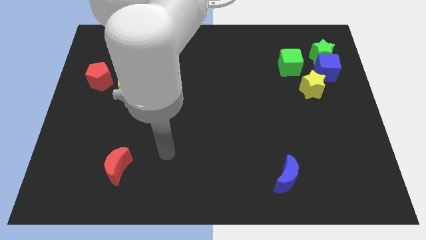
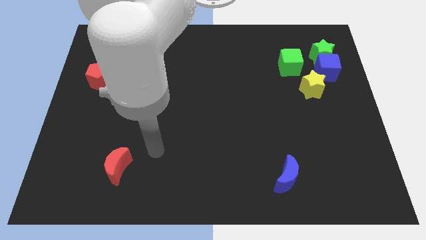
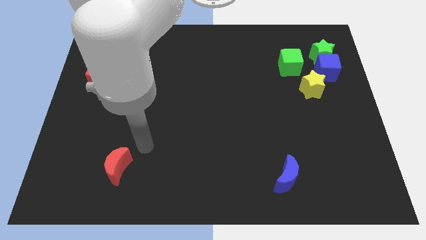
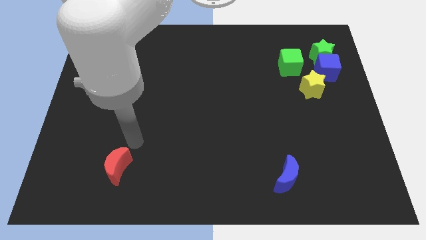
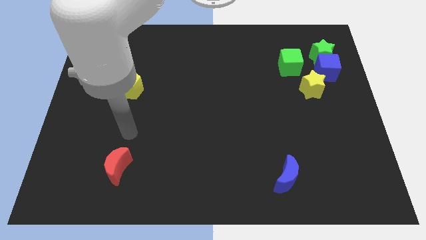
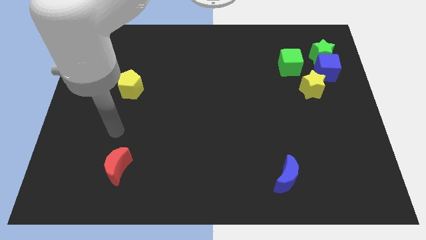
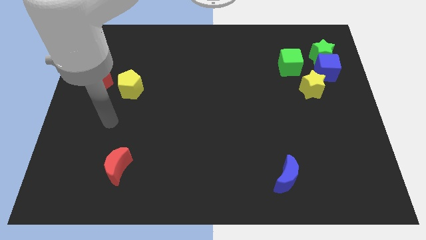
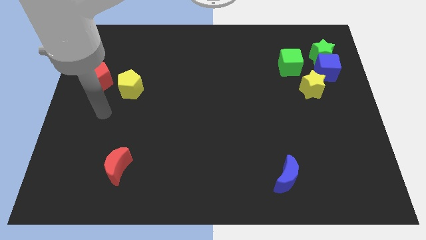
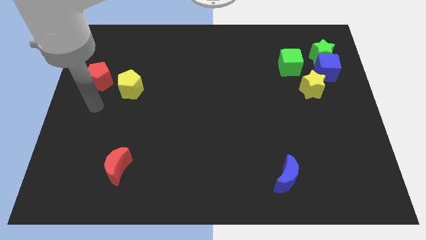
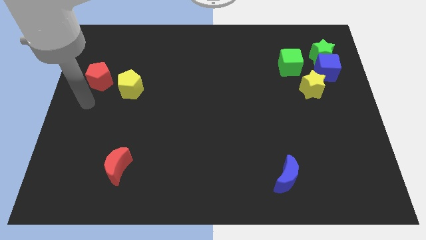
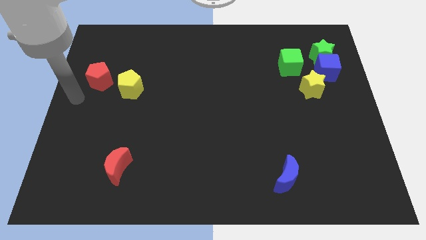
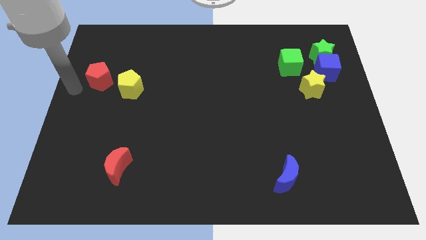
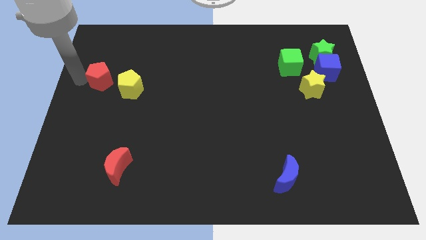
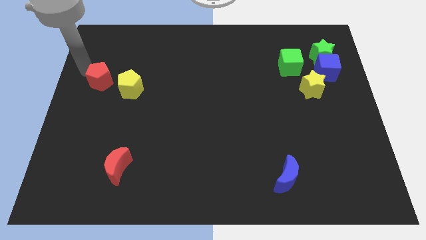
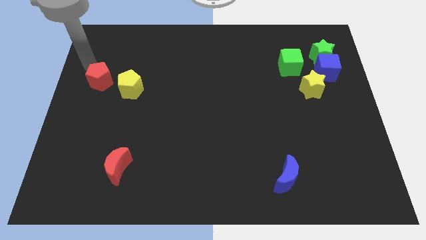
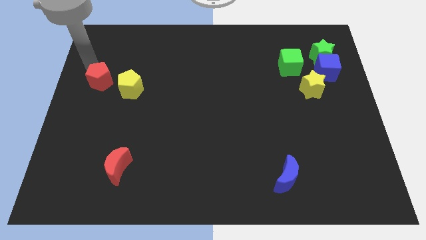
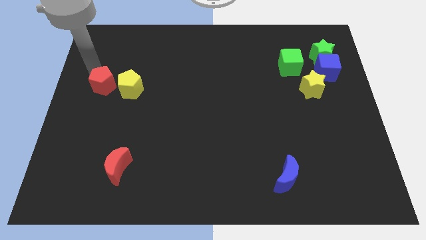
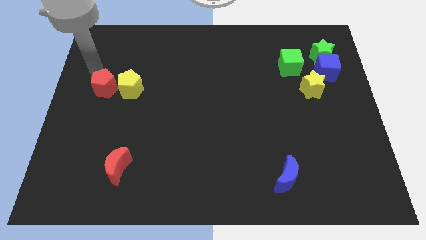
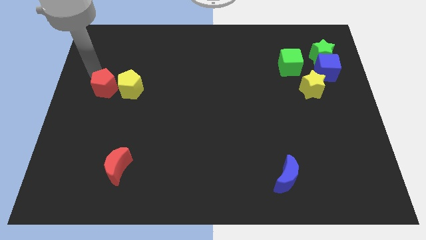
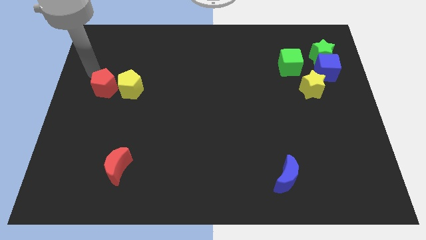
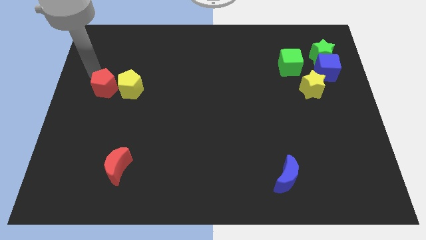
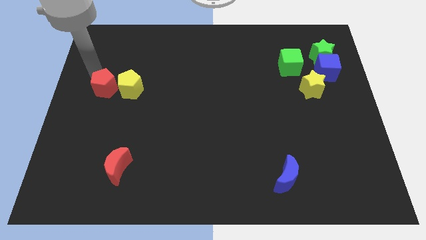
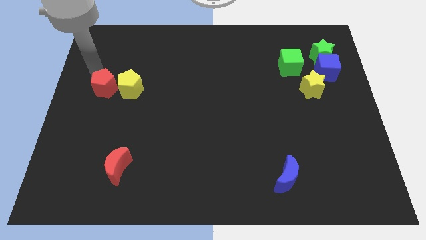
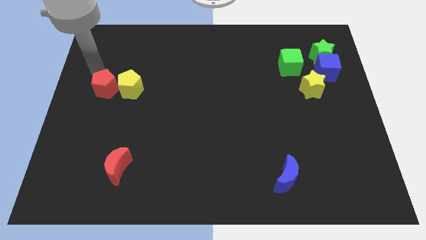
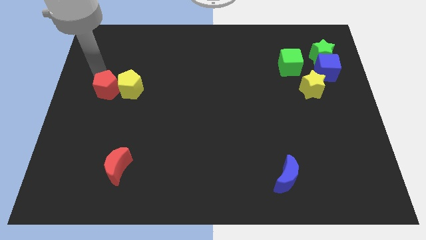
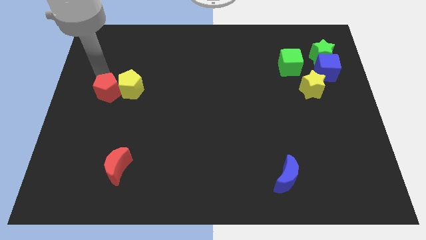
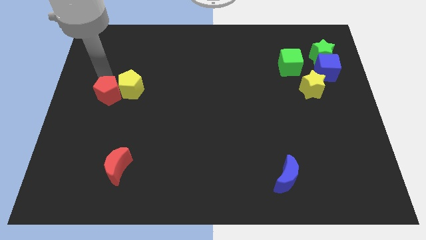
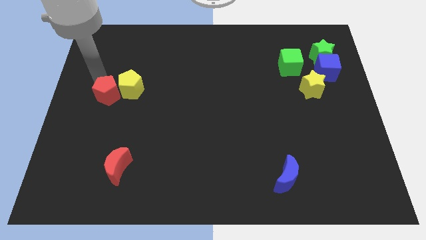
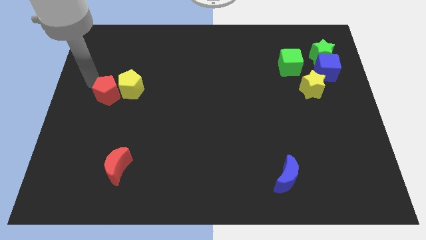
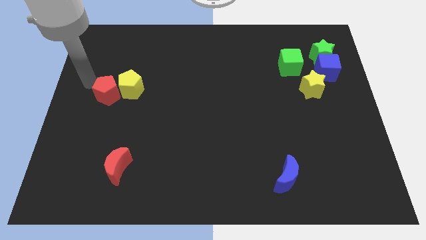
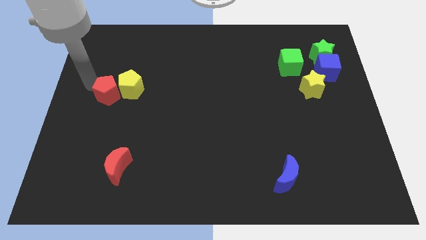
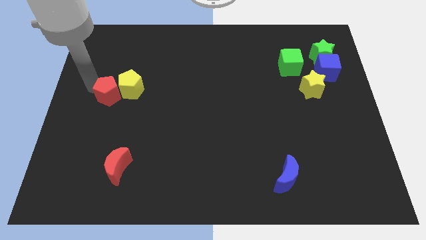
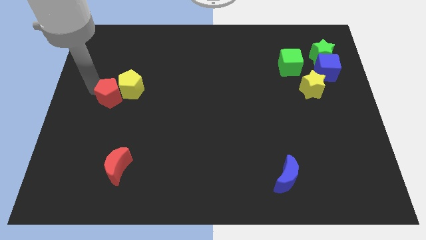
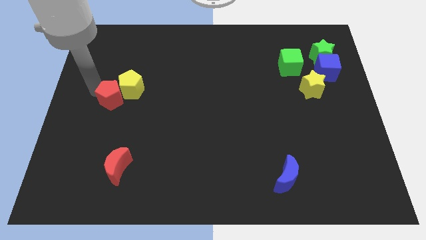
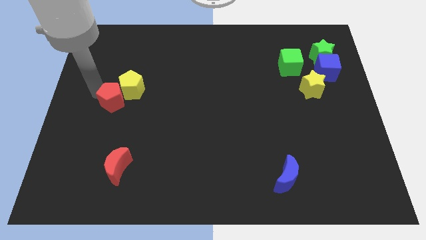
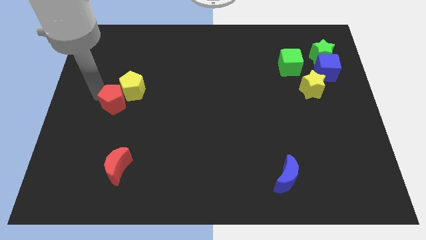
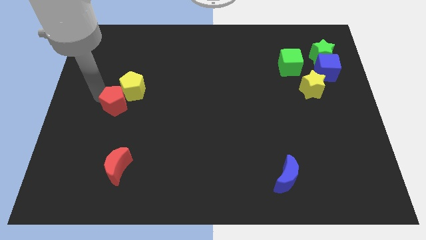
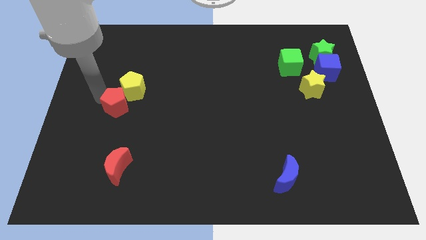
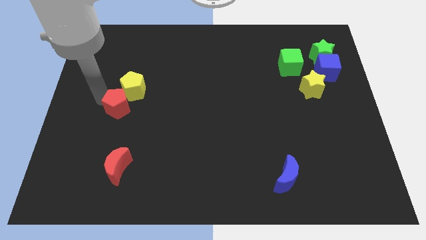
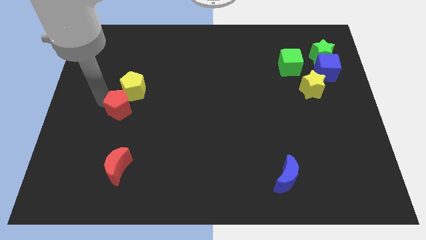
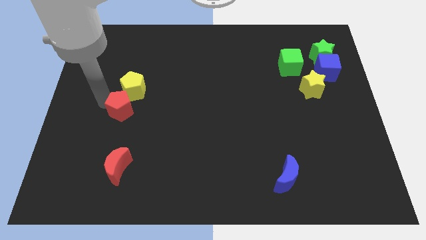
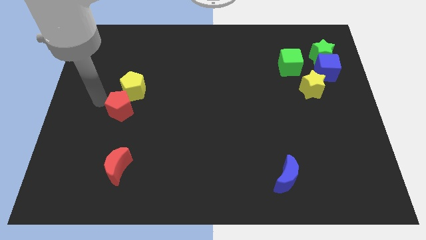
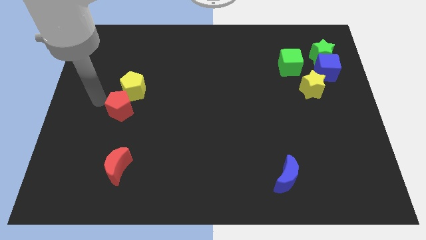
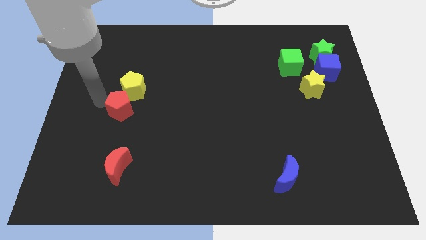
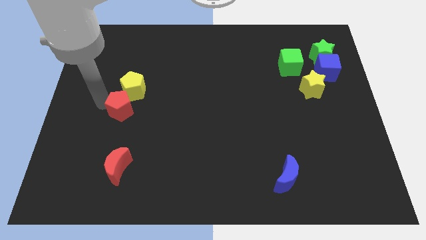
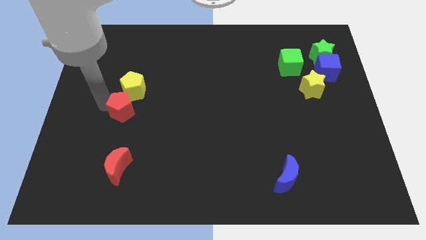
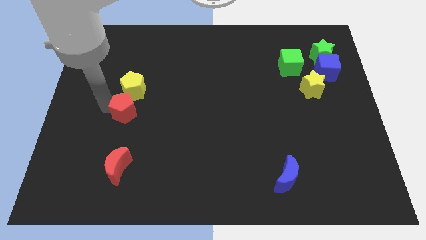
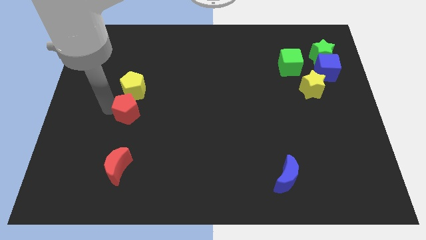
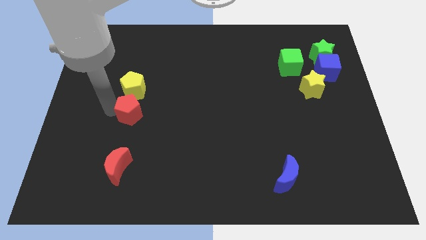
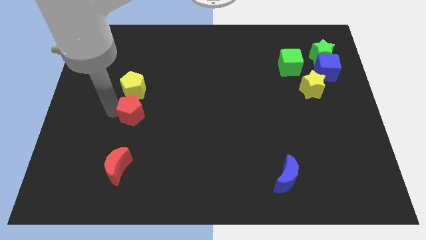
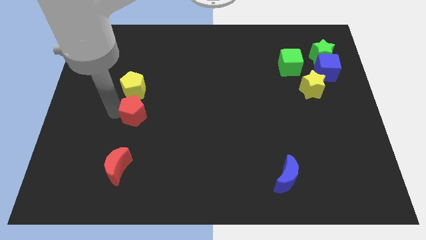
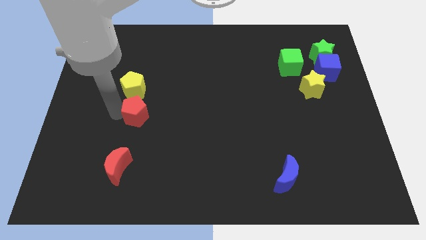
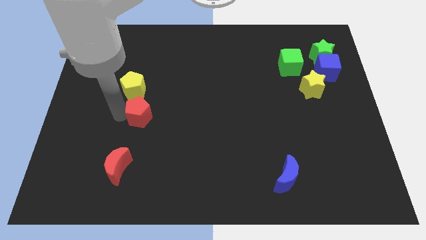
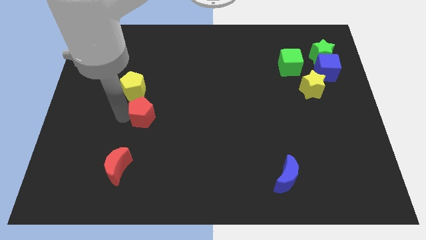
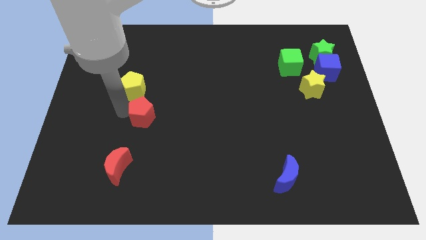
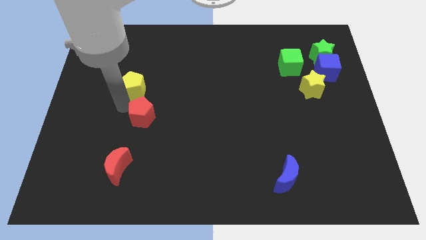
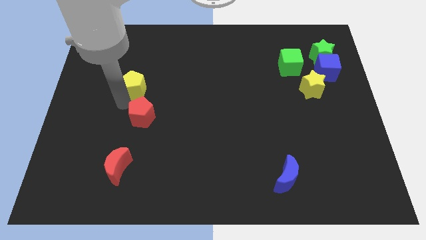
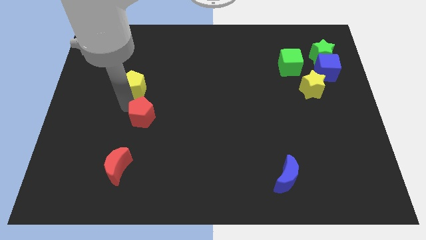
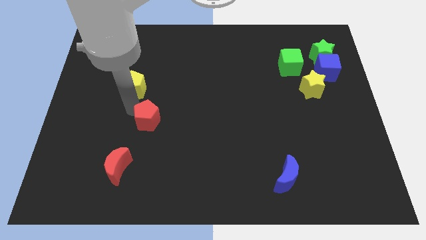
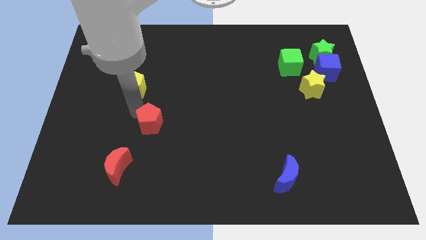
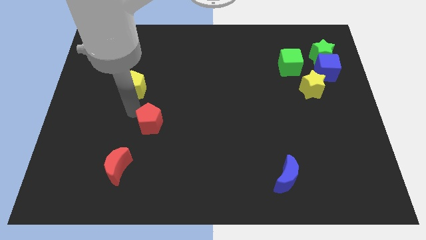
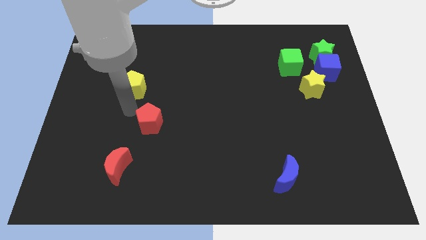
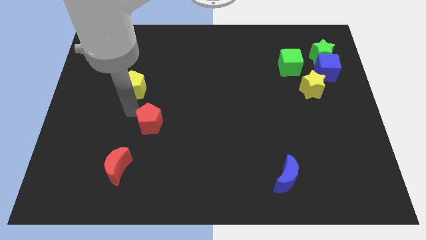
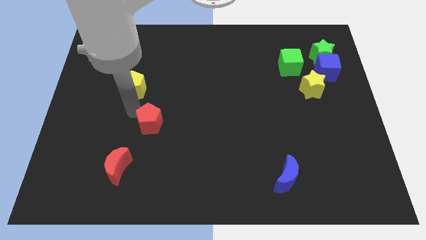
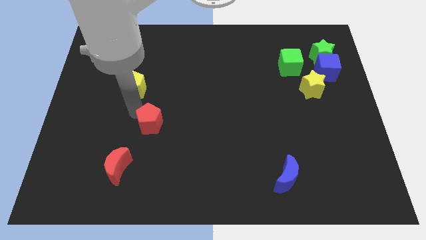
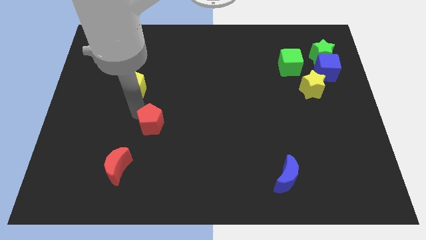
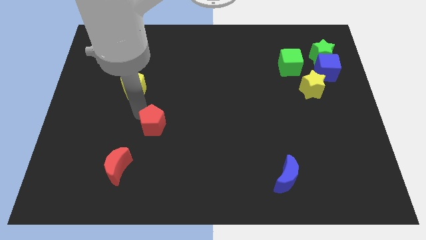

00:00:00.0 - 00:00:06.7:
move the red pentagon downwards and to the right

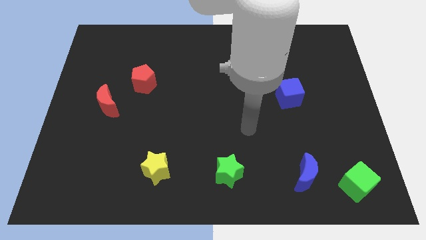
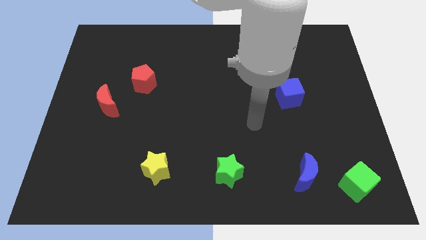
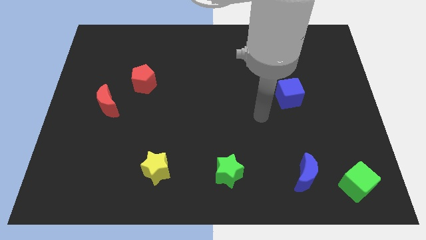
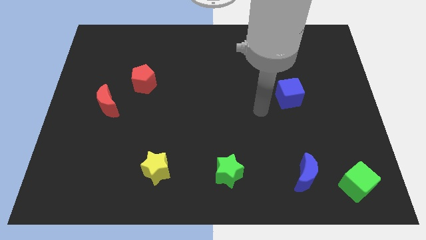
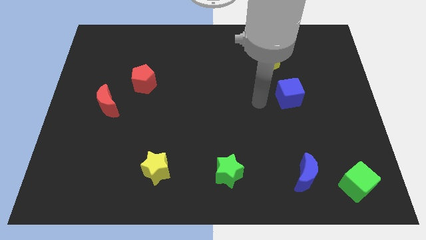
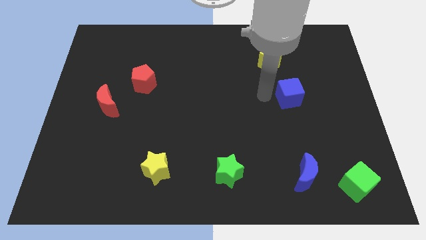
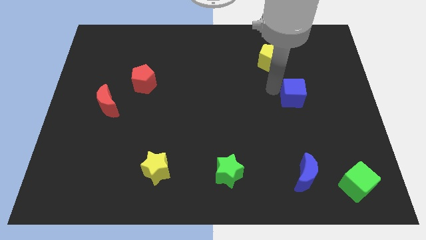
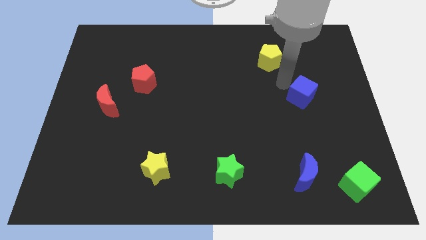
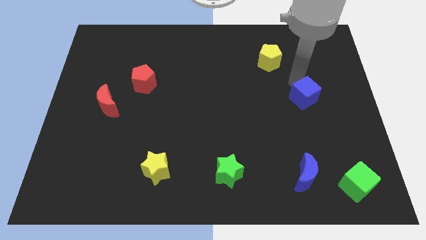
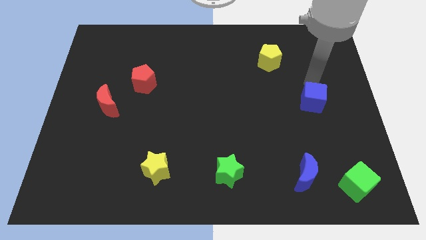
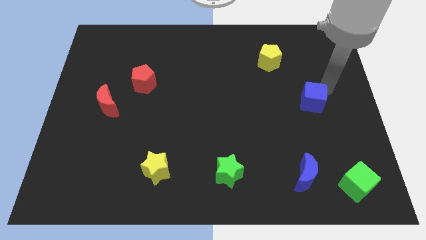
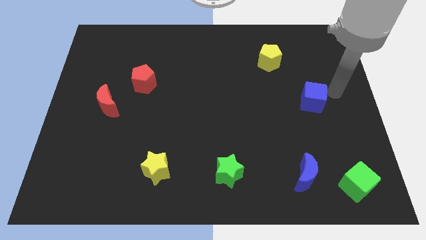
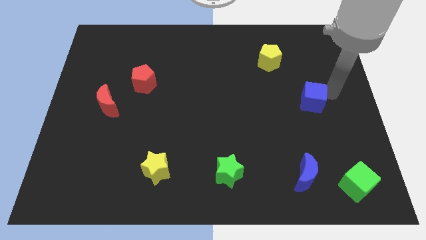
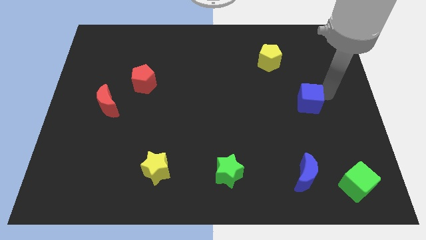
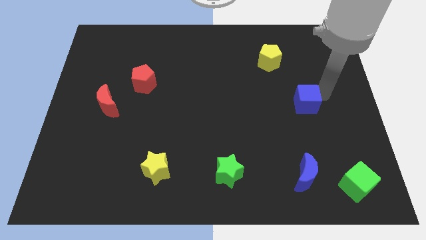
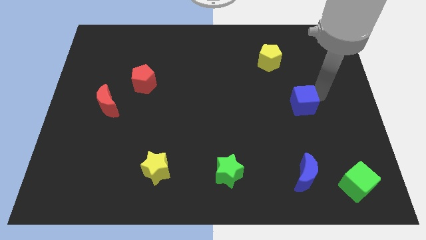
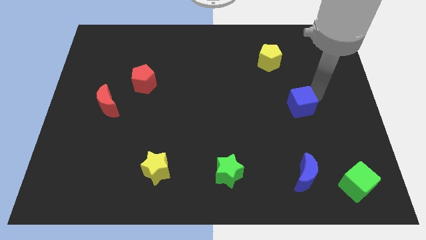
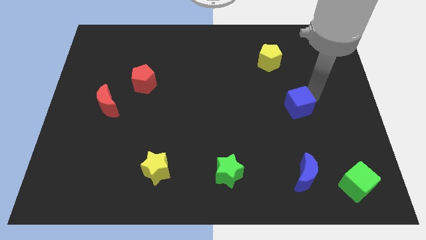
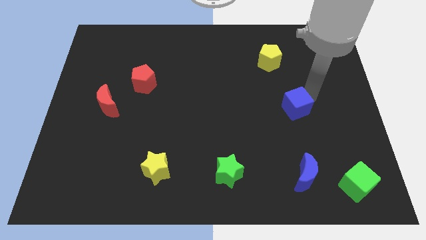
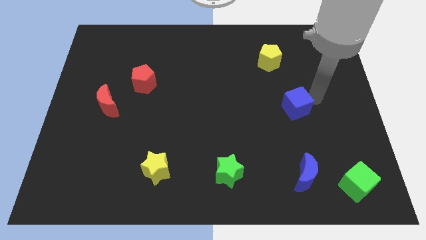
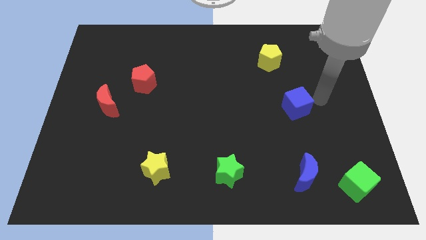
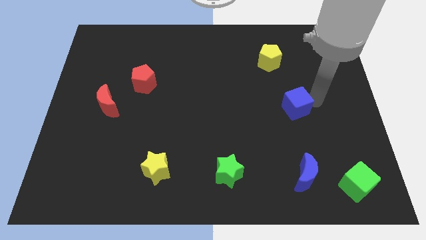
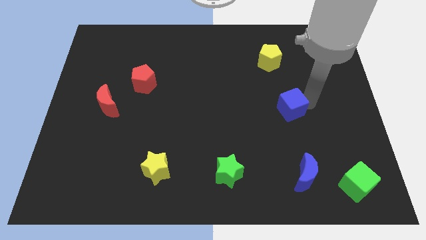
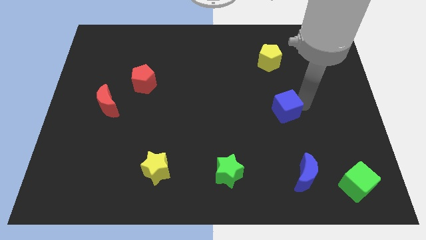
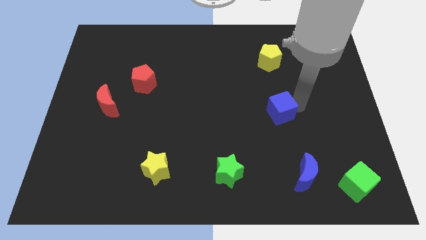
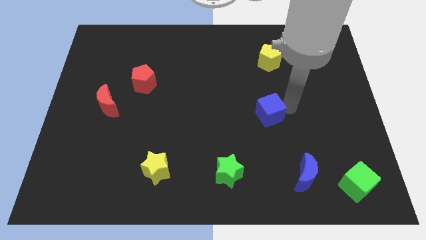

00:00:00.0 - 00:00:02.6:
push the blue cube a little down and left
